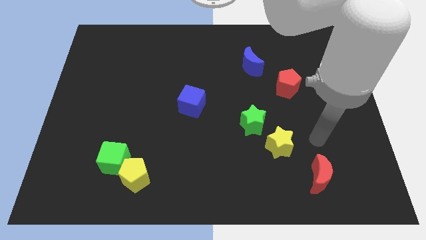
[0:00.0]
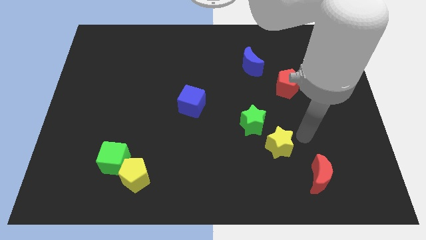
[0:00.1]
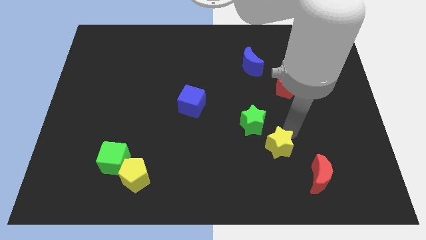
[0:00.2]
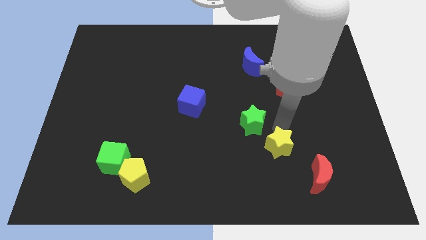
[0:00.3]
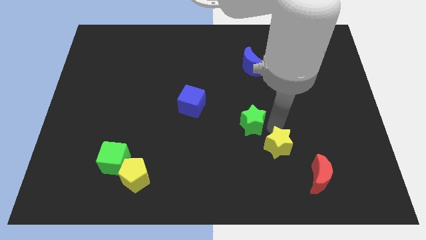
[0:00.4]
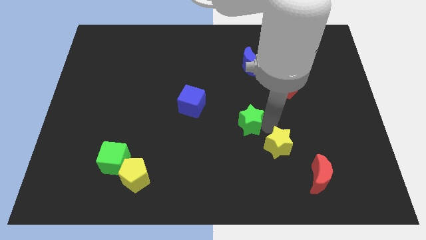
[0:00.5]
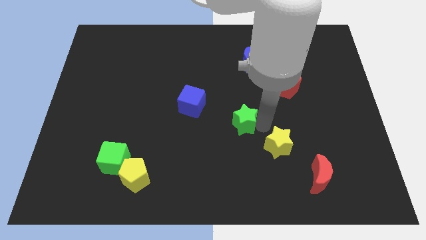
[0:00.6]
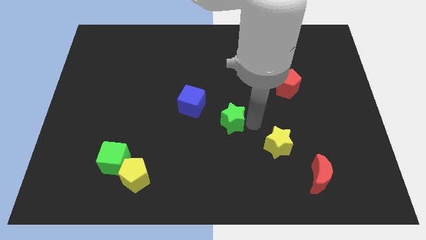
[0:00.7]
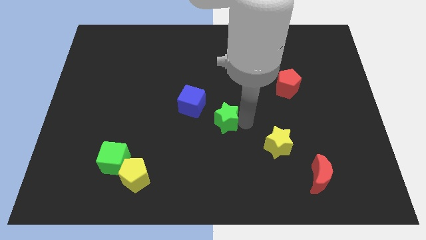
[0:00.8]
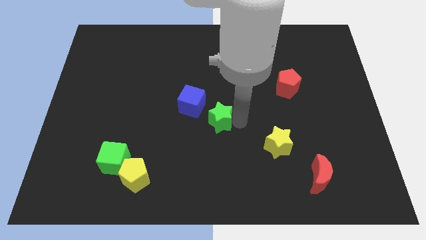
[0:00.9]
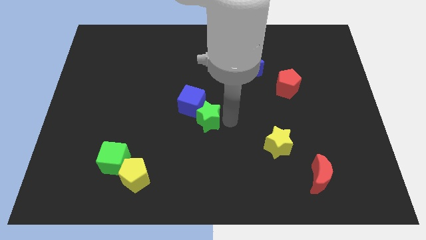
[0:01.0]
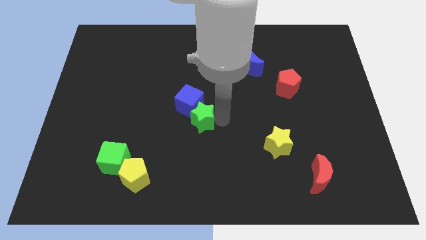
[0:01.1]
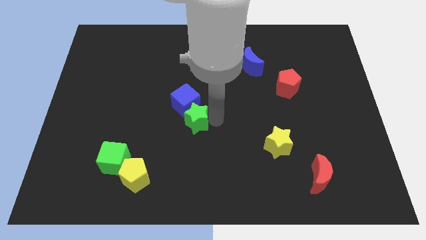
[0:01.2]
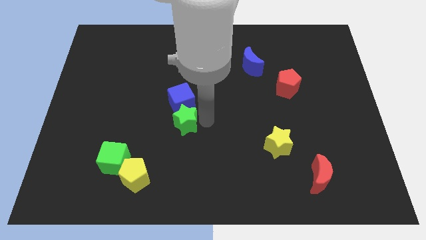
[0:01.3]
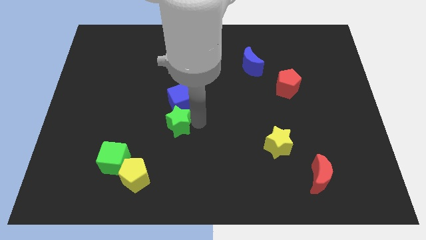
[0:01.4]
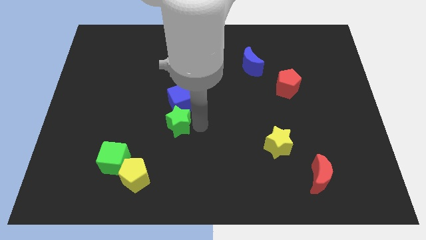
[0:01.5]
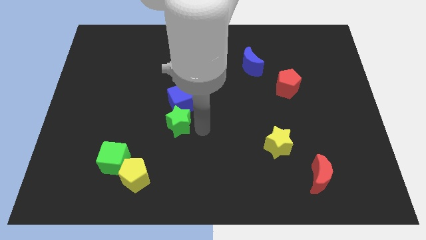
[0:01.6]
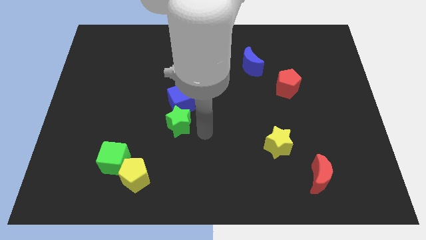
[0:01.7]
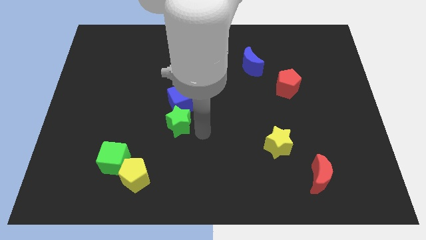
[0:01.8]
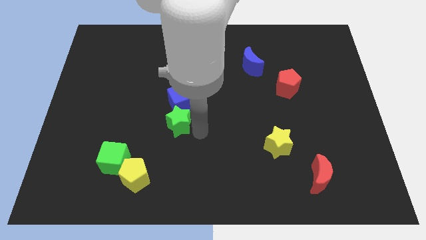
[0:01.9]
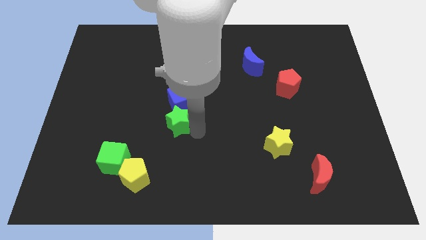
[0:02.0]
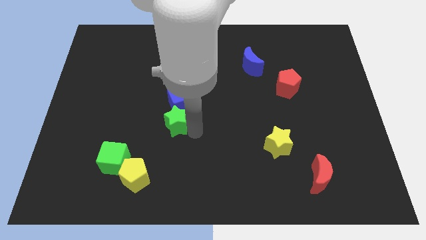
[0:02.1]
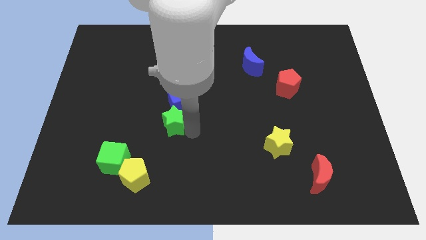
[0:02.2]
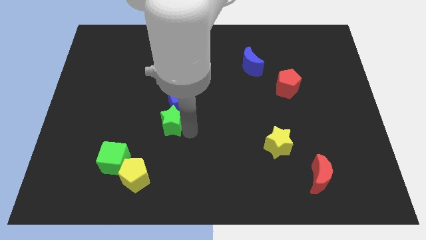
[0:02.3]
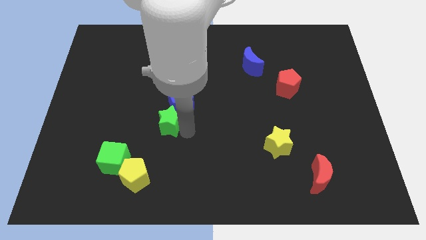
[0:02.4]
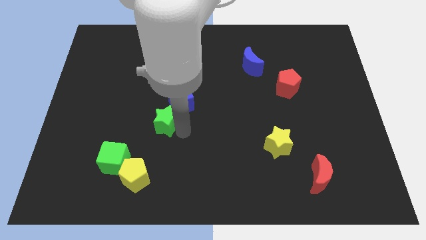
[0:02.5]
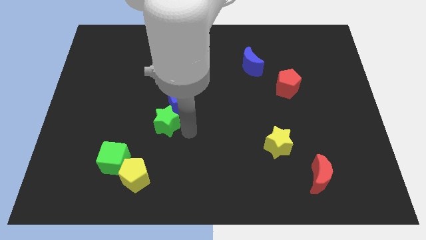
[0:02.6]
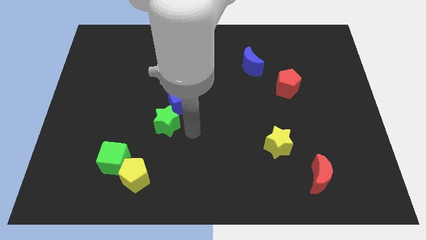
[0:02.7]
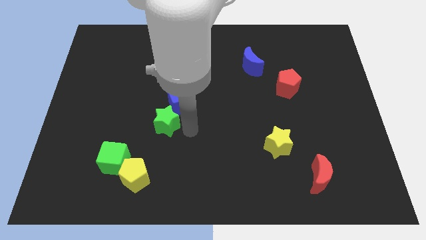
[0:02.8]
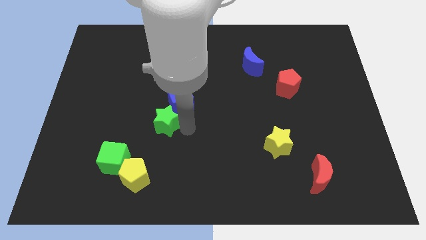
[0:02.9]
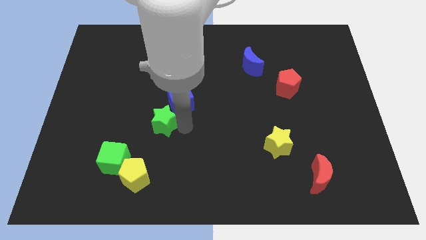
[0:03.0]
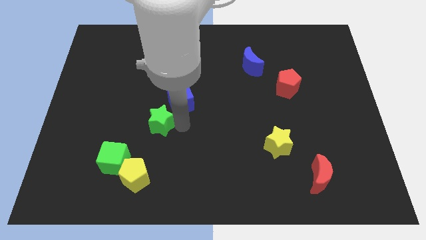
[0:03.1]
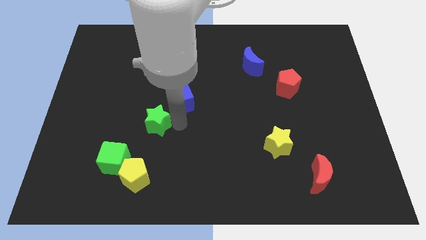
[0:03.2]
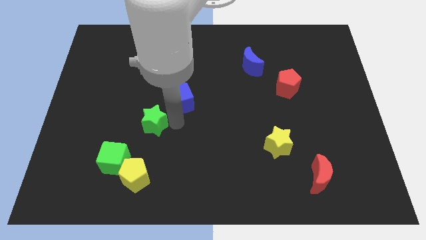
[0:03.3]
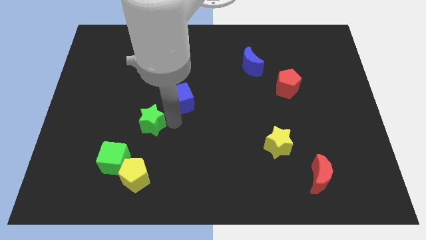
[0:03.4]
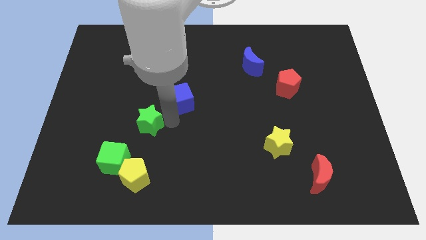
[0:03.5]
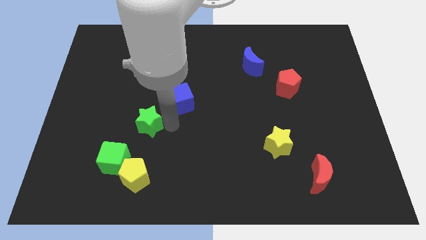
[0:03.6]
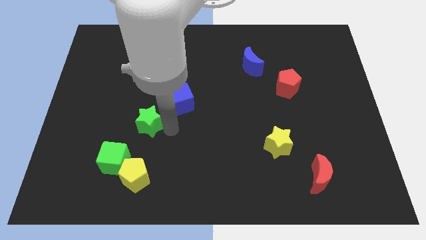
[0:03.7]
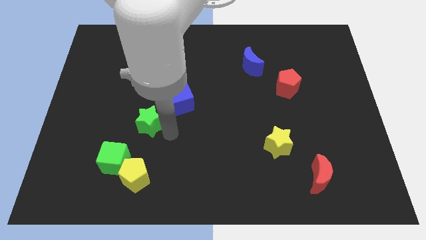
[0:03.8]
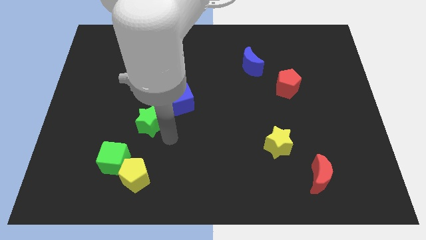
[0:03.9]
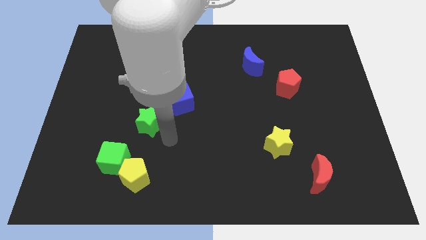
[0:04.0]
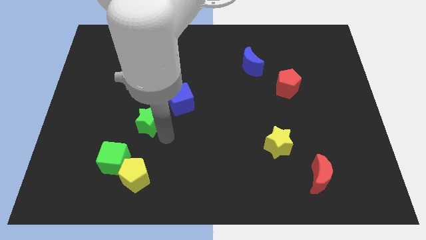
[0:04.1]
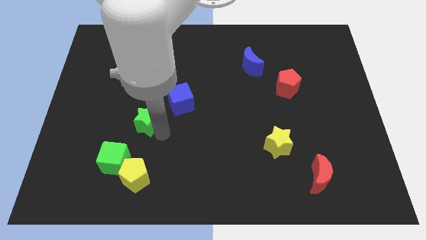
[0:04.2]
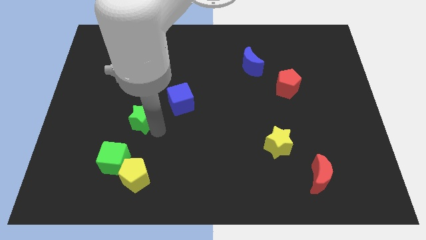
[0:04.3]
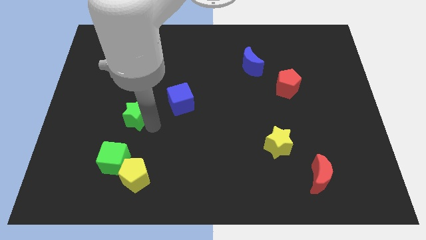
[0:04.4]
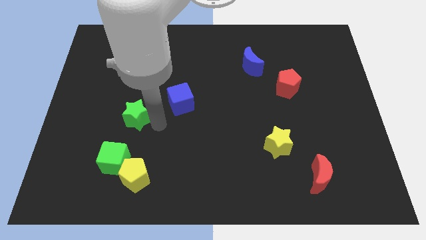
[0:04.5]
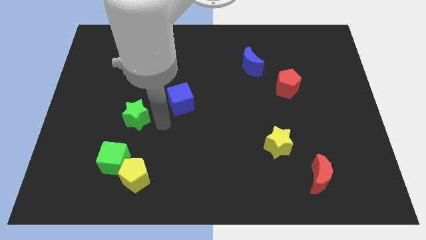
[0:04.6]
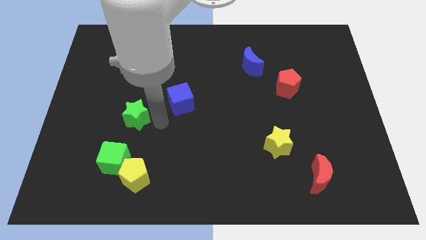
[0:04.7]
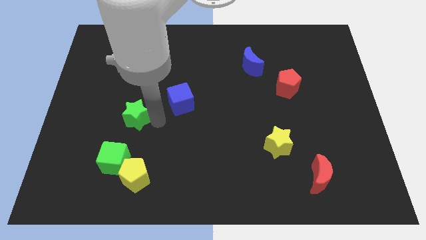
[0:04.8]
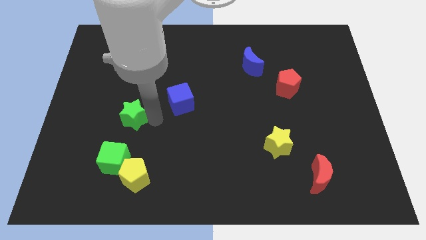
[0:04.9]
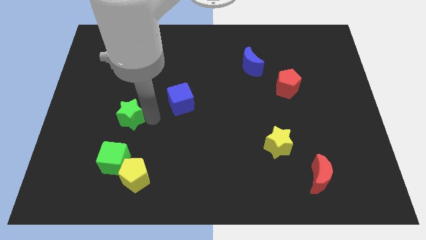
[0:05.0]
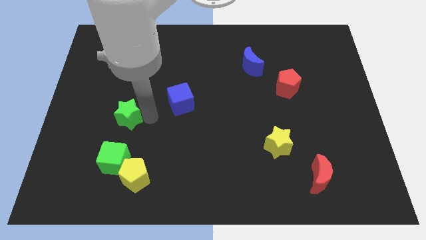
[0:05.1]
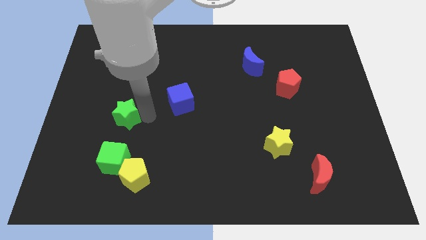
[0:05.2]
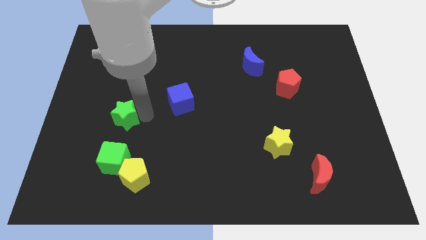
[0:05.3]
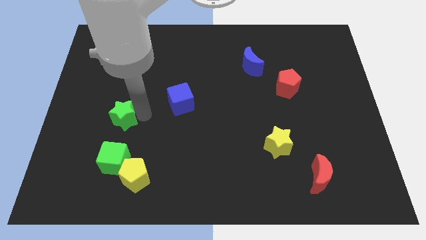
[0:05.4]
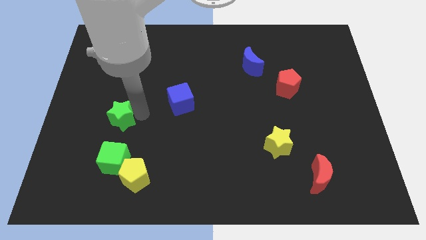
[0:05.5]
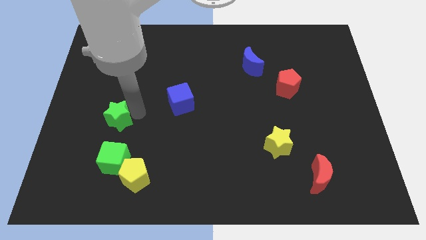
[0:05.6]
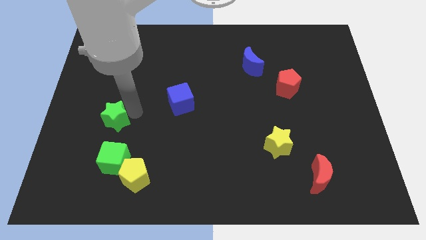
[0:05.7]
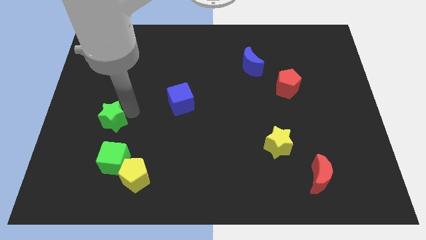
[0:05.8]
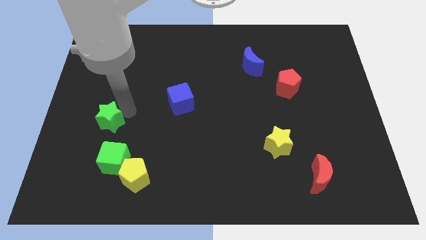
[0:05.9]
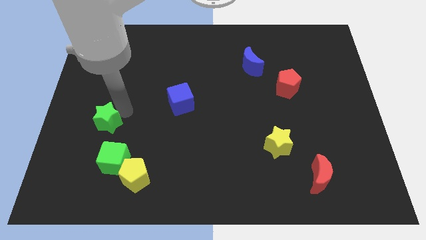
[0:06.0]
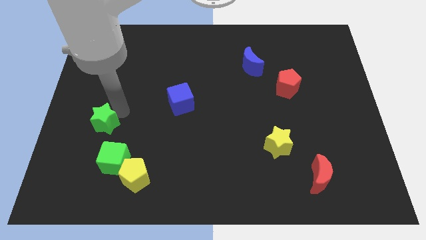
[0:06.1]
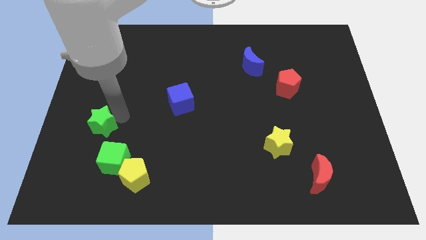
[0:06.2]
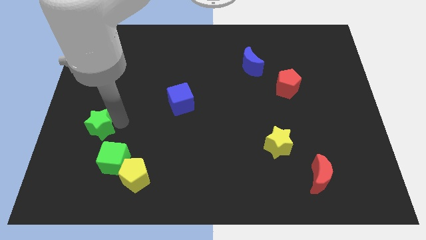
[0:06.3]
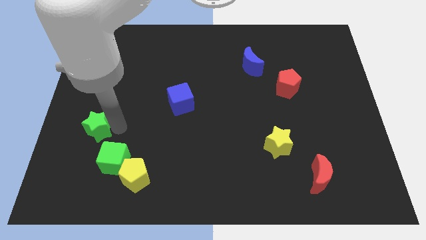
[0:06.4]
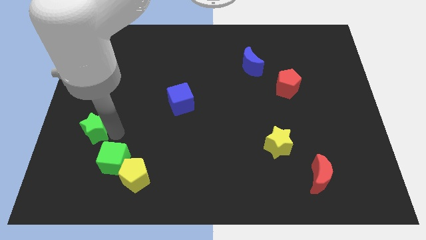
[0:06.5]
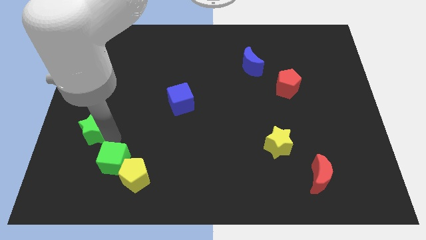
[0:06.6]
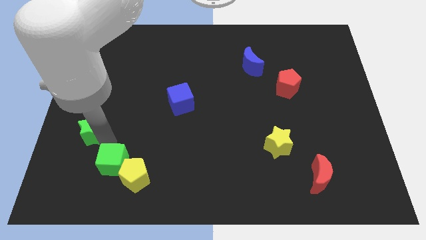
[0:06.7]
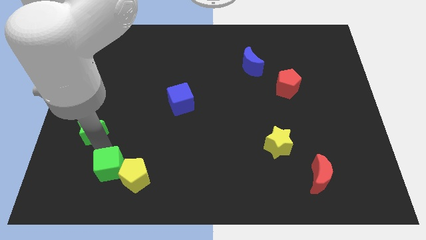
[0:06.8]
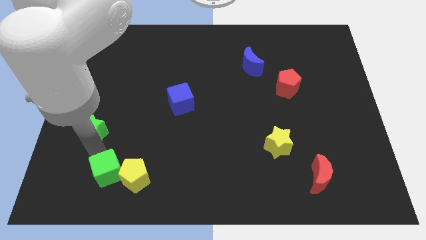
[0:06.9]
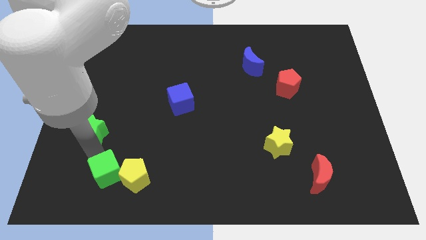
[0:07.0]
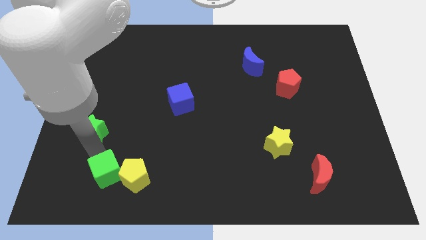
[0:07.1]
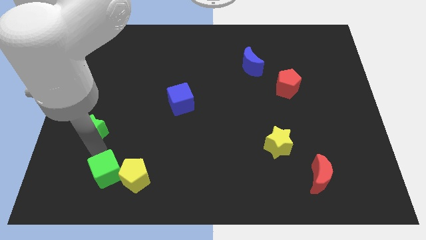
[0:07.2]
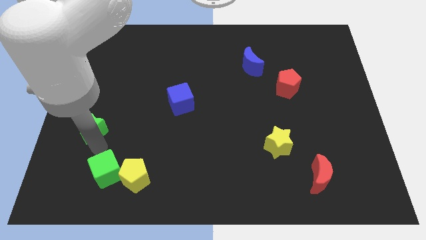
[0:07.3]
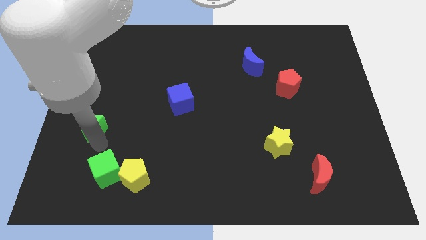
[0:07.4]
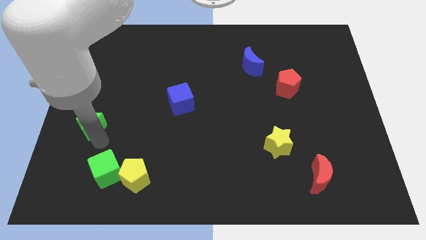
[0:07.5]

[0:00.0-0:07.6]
push the green star to the center left
